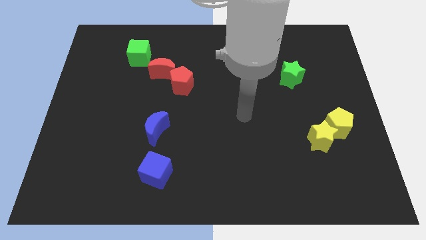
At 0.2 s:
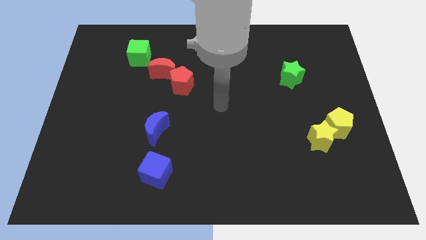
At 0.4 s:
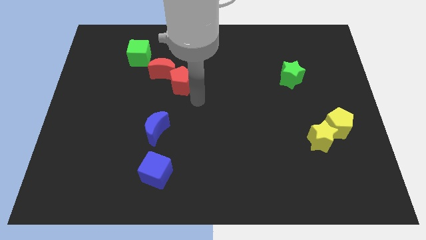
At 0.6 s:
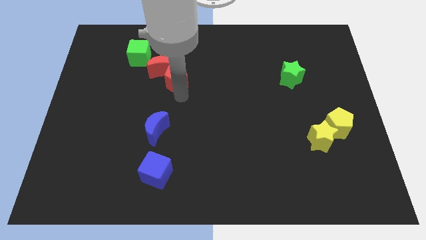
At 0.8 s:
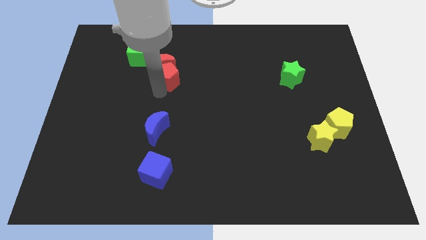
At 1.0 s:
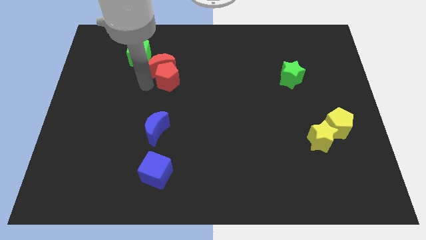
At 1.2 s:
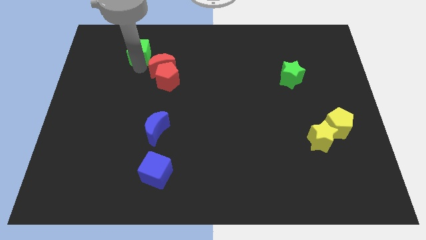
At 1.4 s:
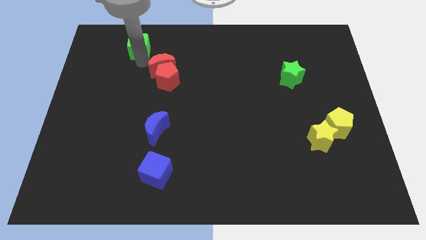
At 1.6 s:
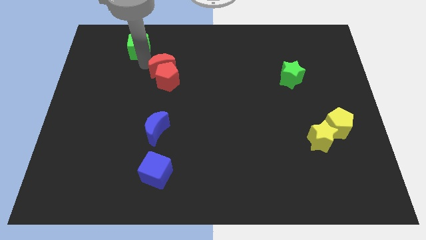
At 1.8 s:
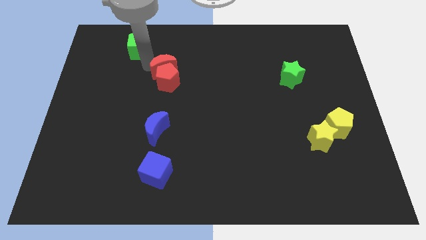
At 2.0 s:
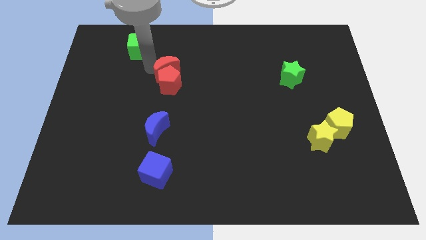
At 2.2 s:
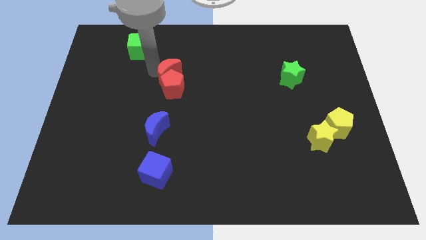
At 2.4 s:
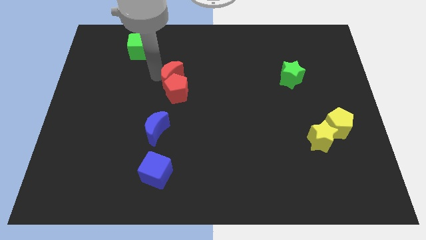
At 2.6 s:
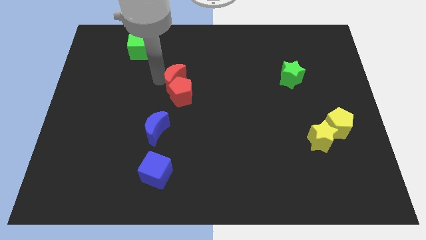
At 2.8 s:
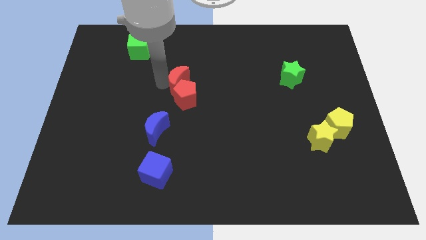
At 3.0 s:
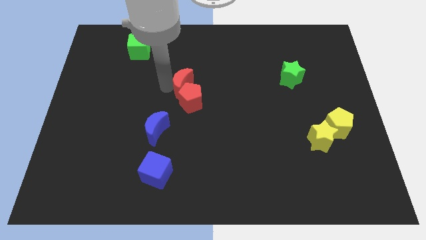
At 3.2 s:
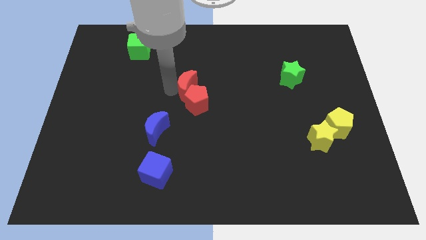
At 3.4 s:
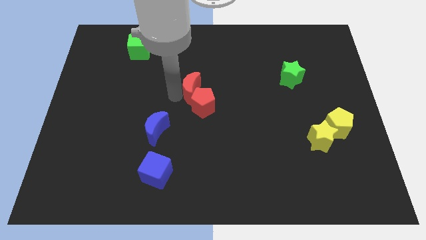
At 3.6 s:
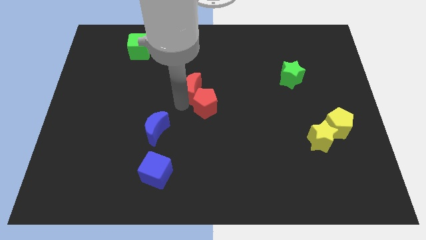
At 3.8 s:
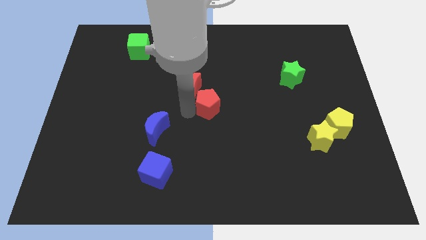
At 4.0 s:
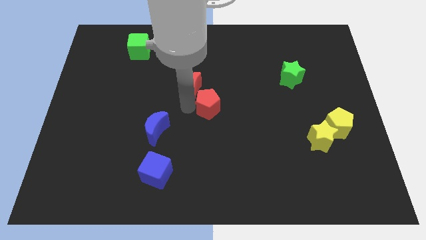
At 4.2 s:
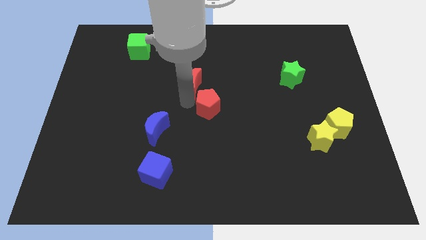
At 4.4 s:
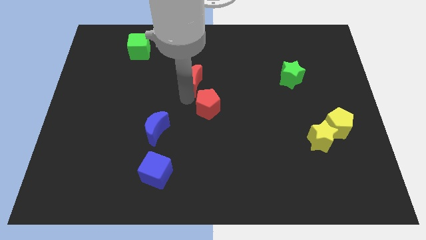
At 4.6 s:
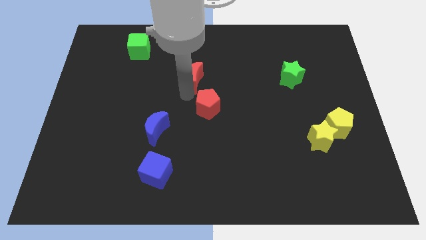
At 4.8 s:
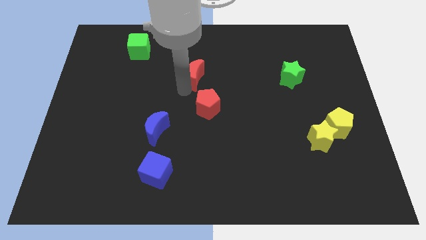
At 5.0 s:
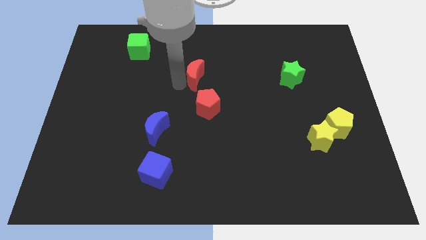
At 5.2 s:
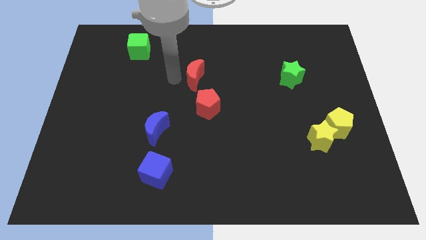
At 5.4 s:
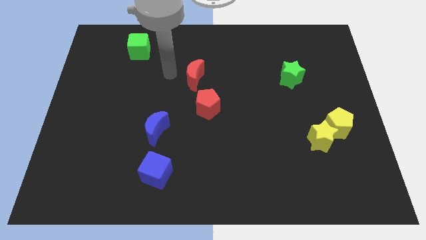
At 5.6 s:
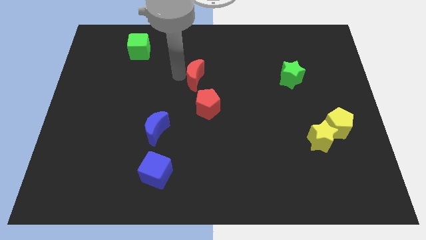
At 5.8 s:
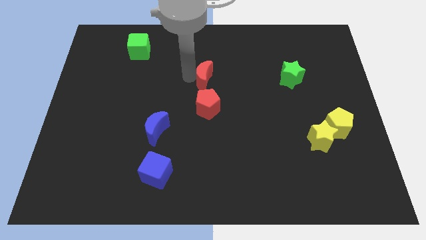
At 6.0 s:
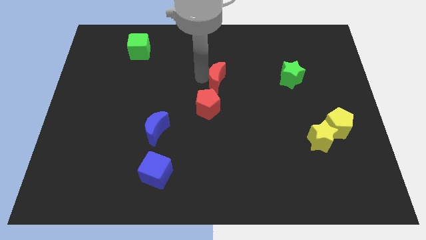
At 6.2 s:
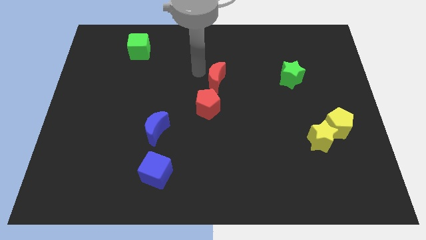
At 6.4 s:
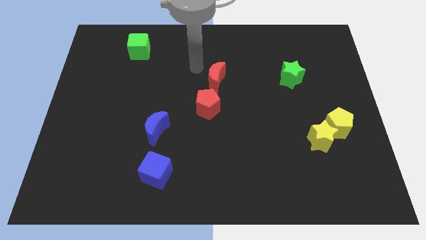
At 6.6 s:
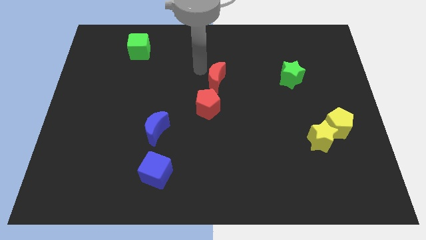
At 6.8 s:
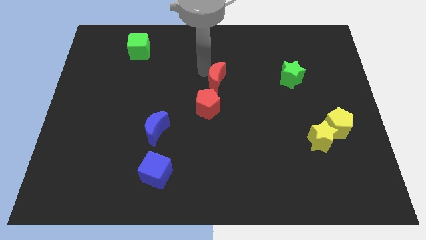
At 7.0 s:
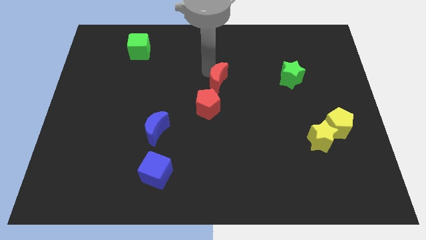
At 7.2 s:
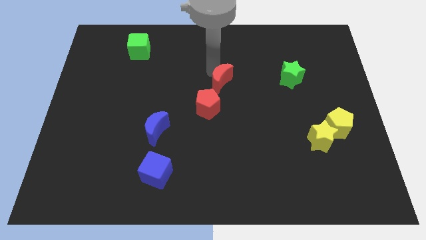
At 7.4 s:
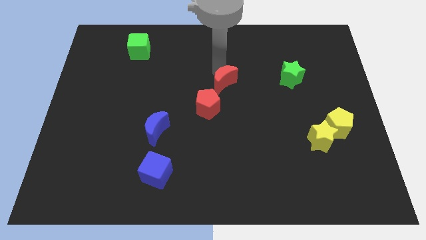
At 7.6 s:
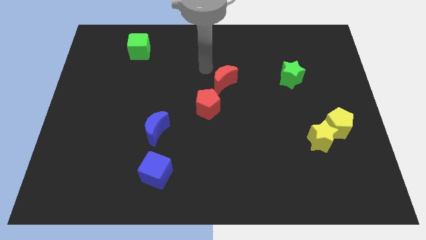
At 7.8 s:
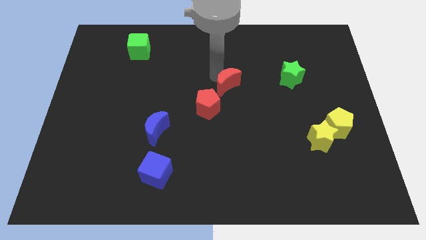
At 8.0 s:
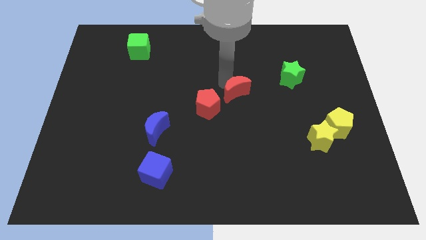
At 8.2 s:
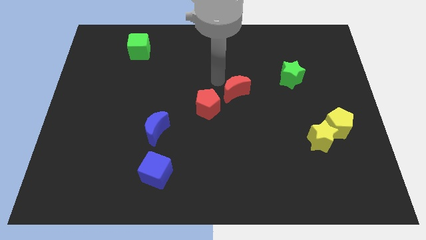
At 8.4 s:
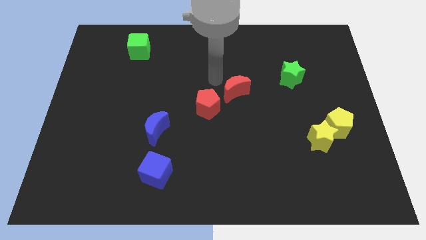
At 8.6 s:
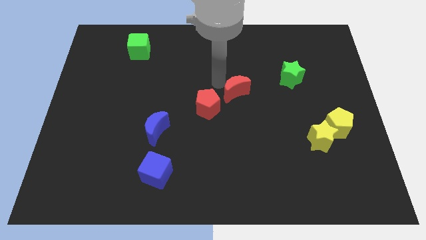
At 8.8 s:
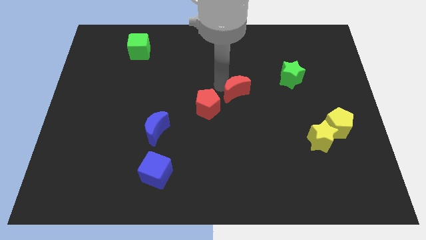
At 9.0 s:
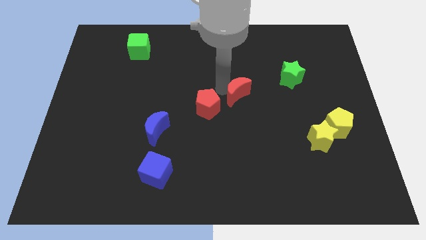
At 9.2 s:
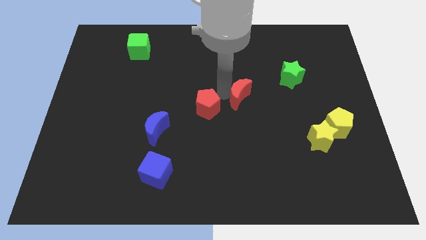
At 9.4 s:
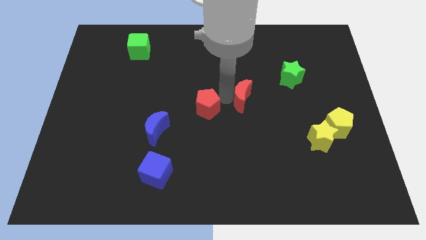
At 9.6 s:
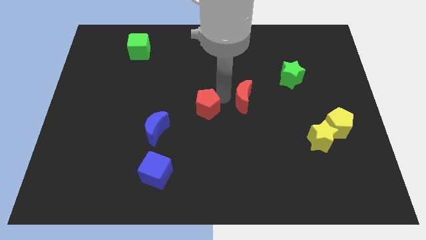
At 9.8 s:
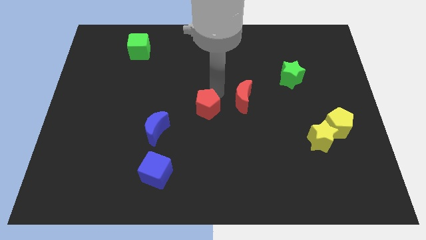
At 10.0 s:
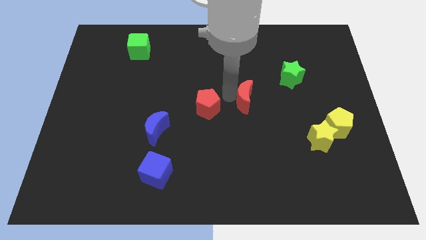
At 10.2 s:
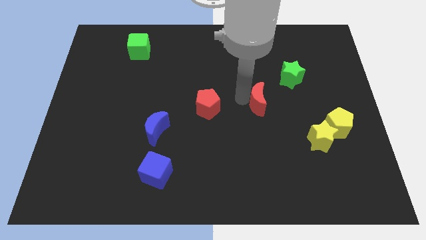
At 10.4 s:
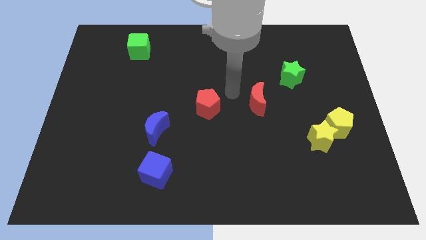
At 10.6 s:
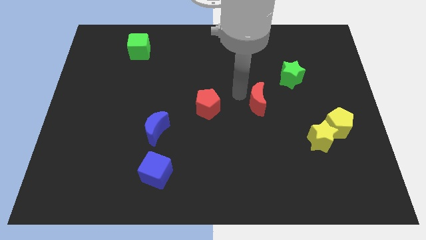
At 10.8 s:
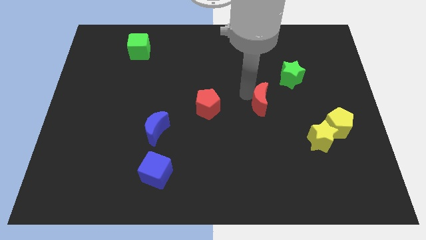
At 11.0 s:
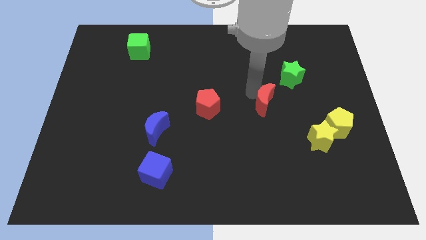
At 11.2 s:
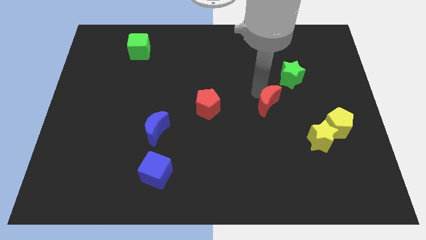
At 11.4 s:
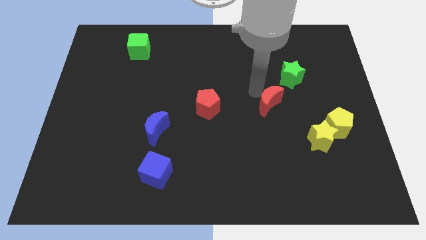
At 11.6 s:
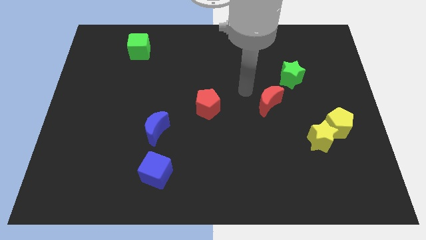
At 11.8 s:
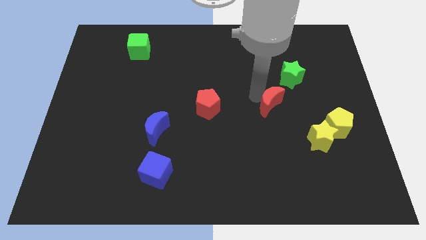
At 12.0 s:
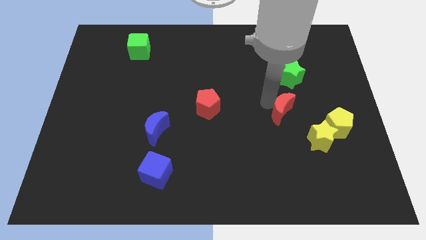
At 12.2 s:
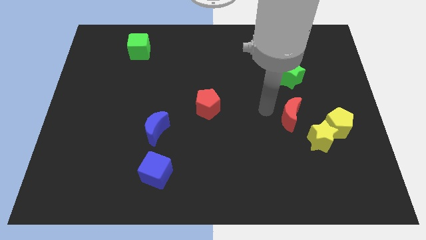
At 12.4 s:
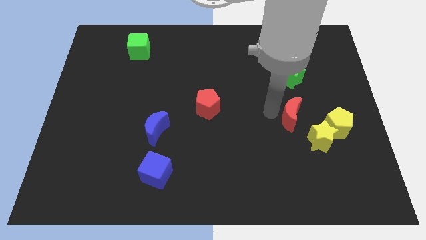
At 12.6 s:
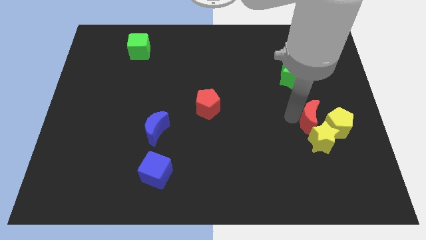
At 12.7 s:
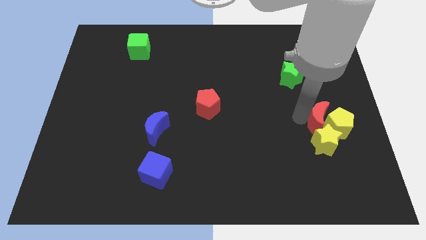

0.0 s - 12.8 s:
push the red moon towards the yellow pentagon

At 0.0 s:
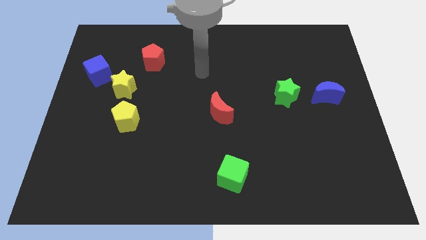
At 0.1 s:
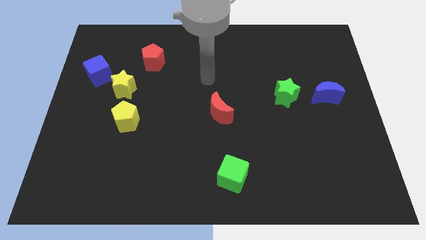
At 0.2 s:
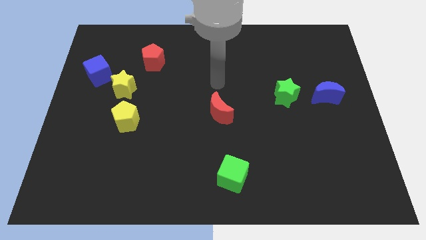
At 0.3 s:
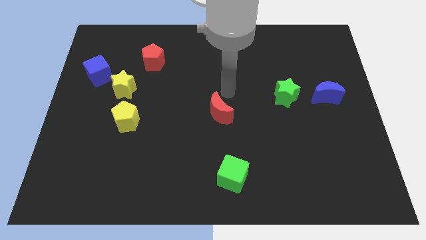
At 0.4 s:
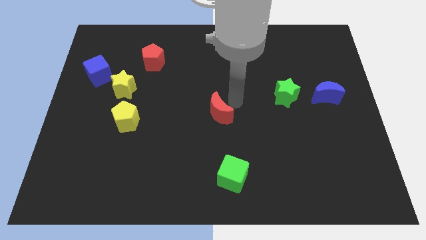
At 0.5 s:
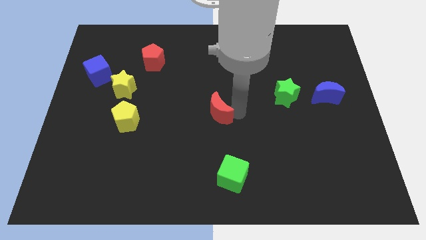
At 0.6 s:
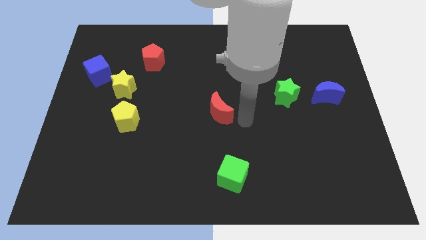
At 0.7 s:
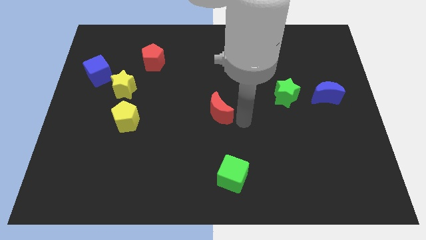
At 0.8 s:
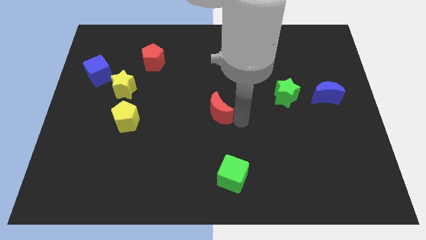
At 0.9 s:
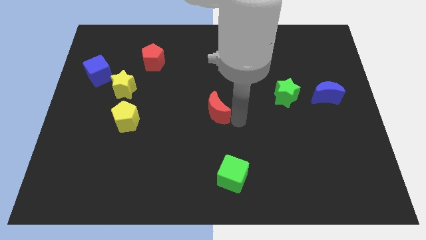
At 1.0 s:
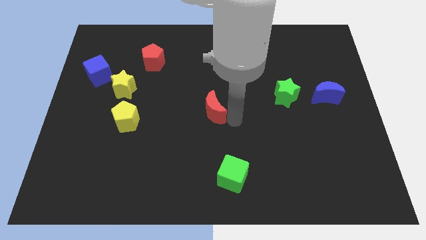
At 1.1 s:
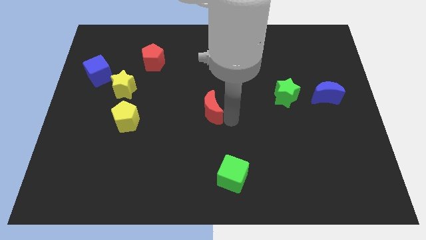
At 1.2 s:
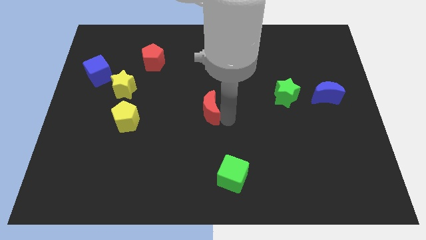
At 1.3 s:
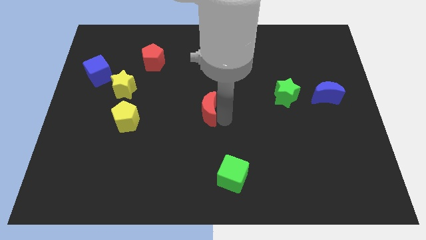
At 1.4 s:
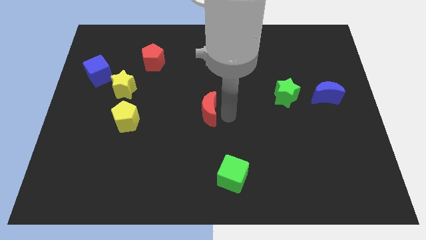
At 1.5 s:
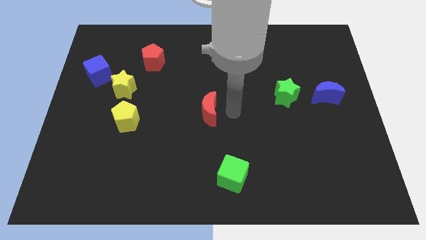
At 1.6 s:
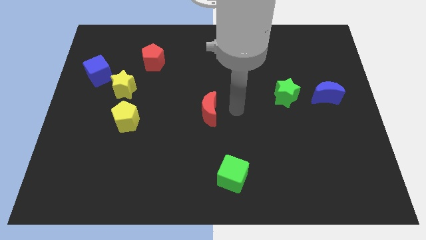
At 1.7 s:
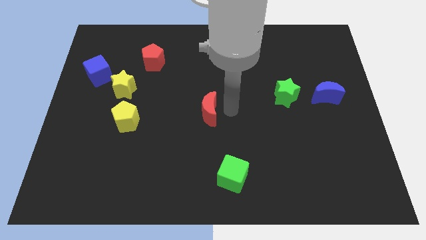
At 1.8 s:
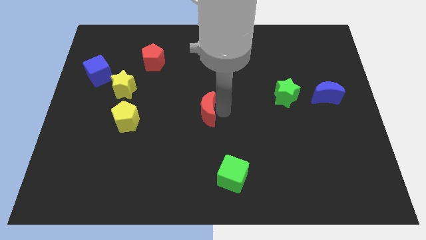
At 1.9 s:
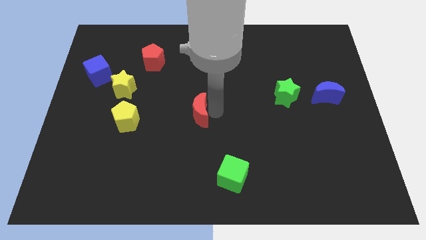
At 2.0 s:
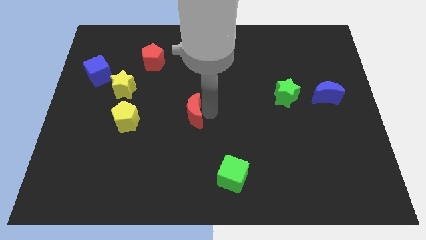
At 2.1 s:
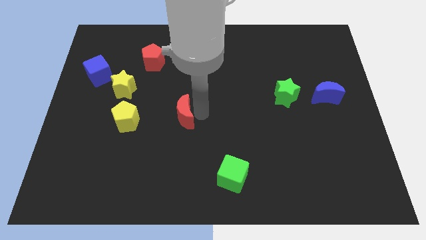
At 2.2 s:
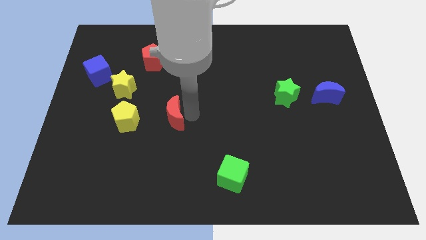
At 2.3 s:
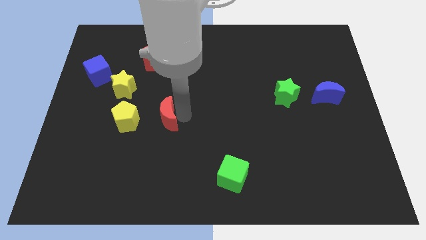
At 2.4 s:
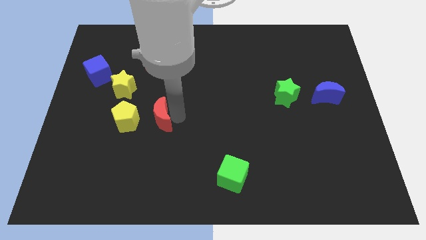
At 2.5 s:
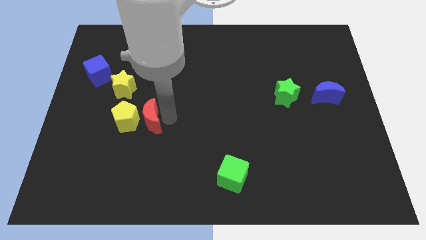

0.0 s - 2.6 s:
move the red moon to the yellow pentagon
